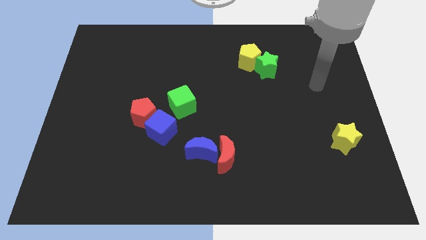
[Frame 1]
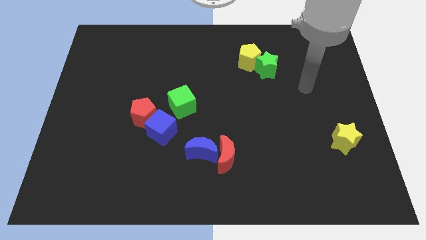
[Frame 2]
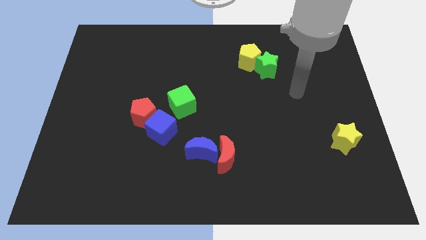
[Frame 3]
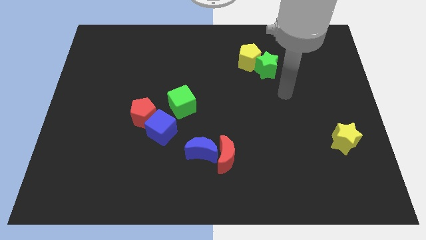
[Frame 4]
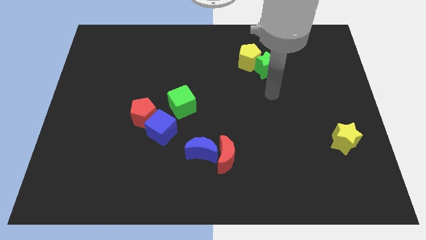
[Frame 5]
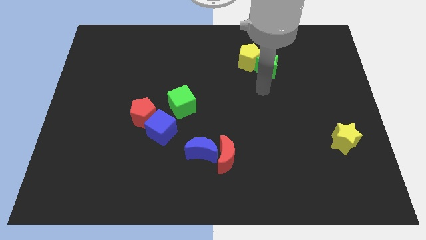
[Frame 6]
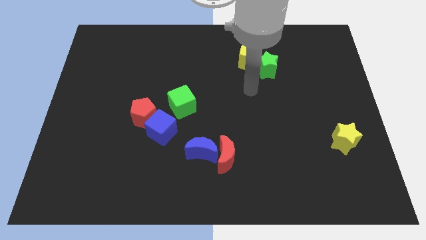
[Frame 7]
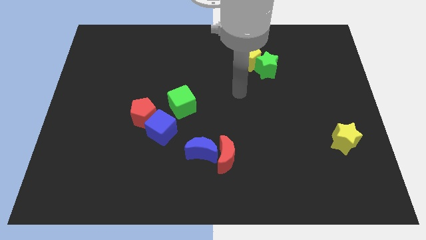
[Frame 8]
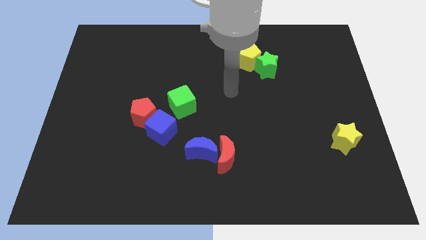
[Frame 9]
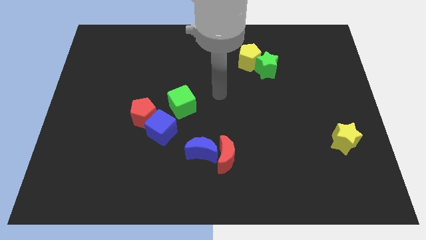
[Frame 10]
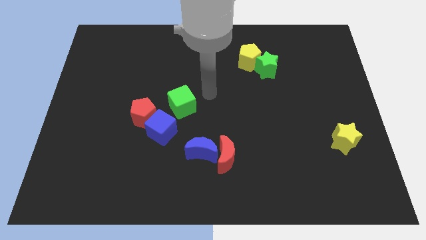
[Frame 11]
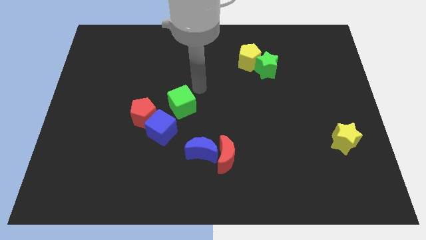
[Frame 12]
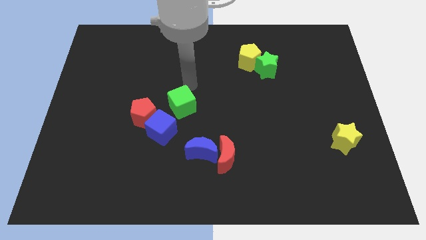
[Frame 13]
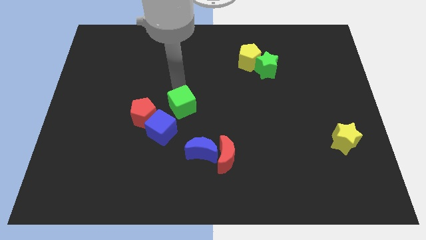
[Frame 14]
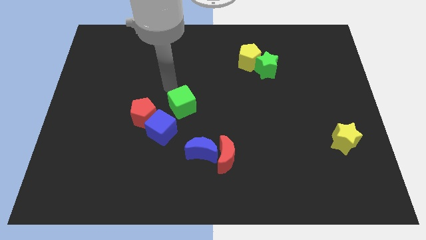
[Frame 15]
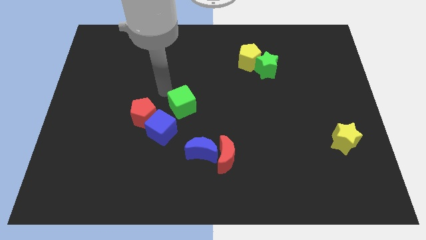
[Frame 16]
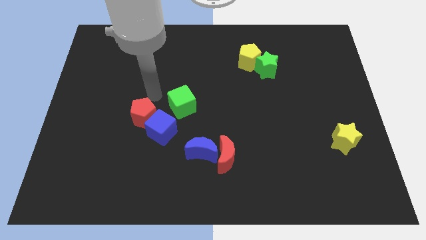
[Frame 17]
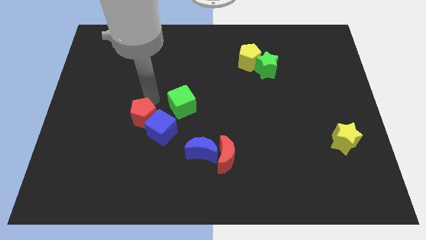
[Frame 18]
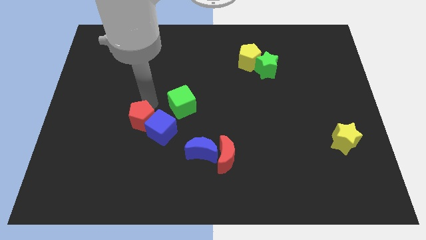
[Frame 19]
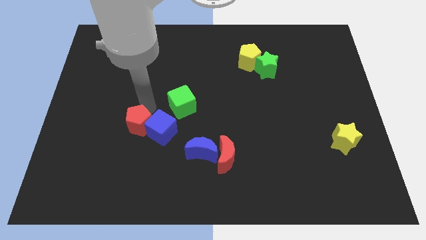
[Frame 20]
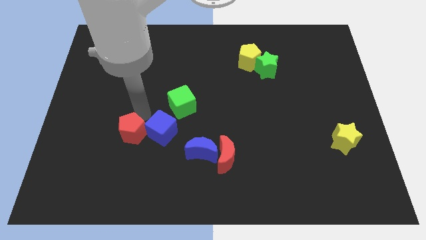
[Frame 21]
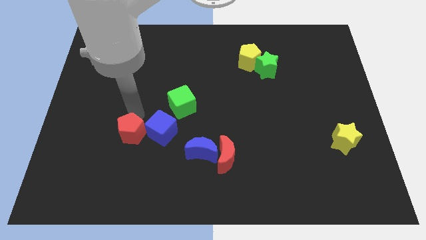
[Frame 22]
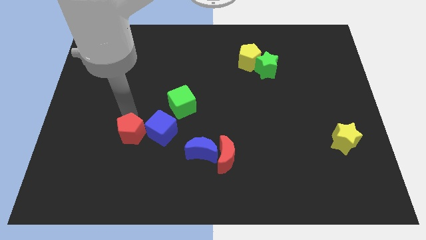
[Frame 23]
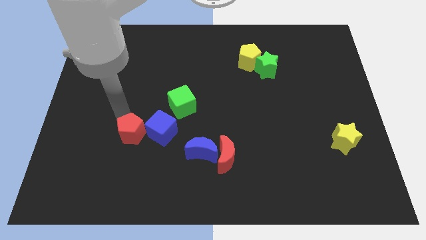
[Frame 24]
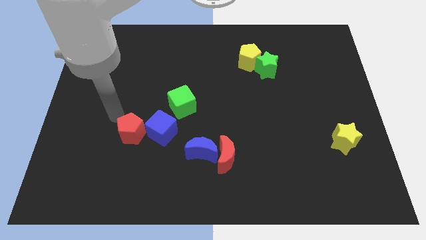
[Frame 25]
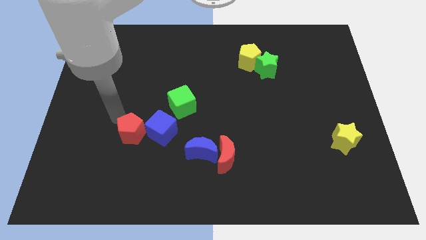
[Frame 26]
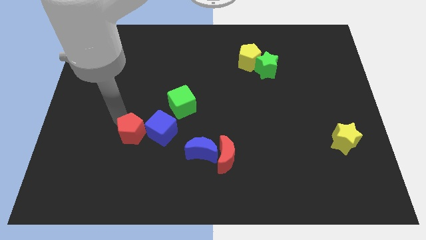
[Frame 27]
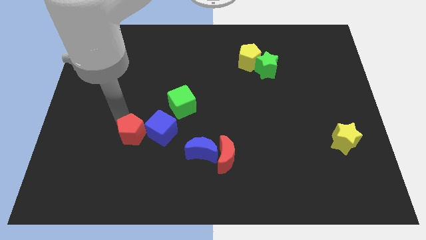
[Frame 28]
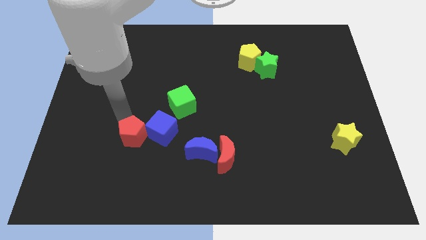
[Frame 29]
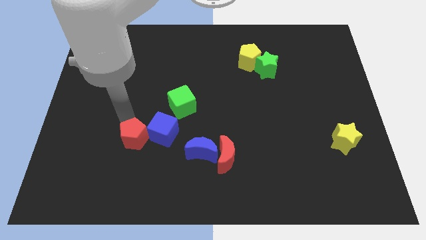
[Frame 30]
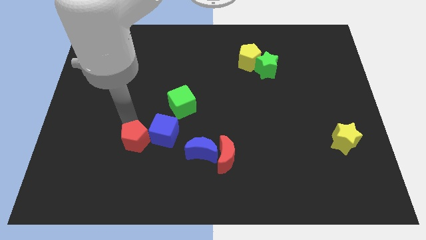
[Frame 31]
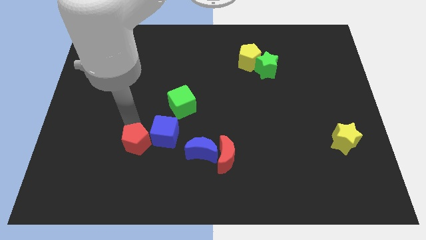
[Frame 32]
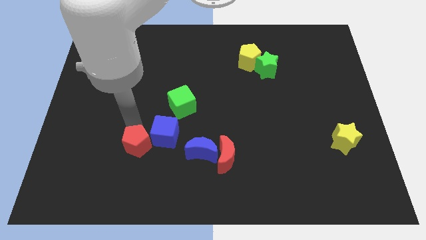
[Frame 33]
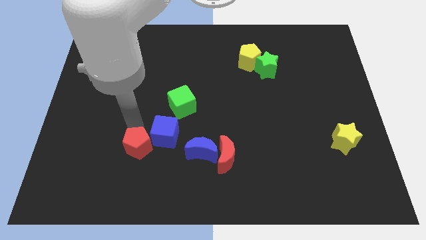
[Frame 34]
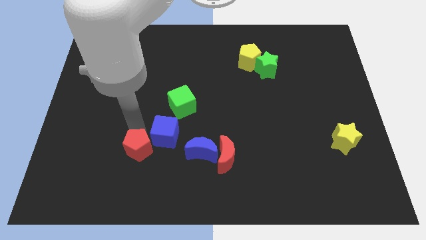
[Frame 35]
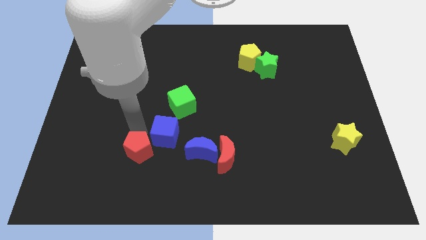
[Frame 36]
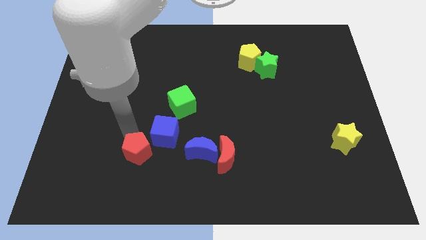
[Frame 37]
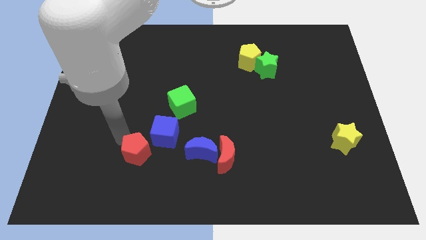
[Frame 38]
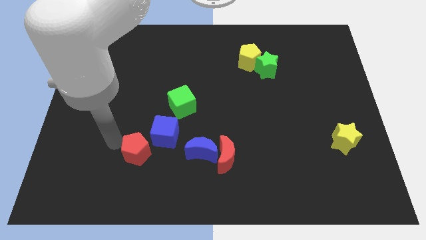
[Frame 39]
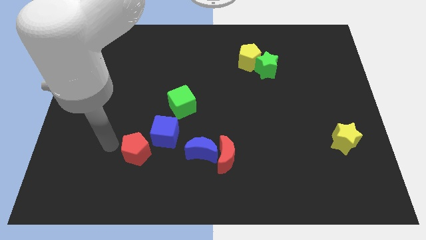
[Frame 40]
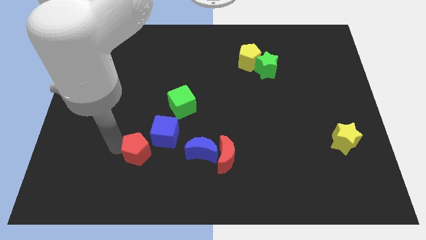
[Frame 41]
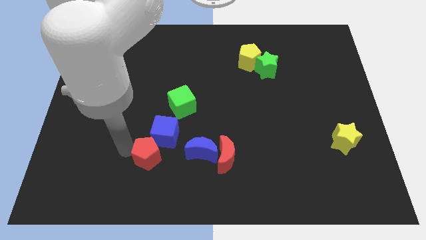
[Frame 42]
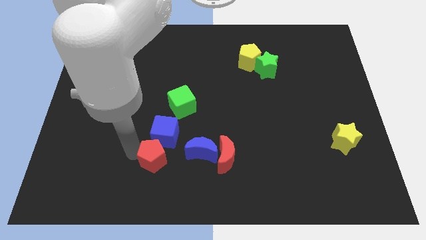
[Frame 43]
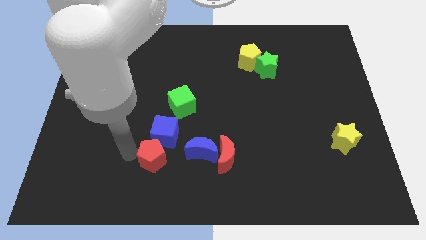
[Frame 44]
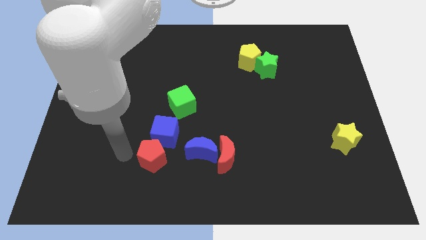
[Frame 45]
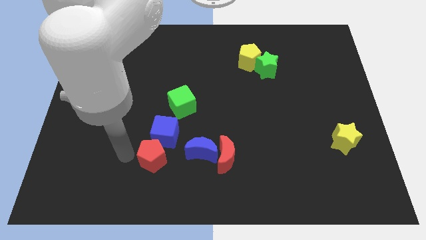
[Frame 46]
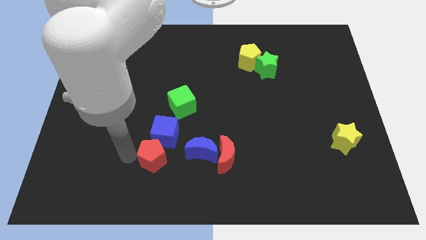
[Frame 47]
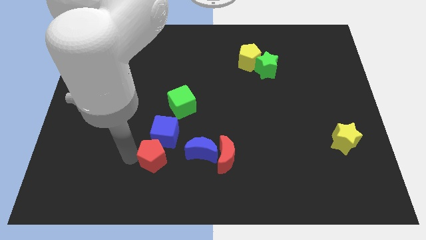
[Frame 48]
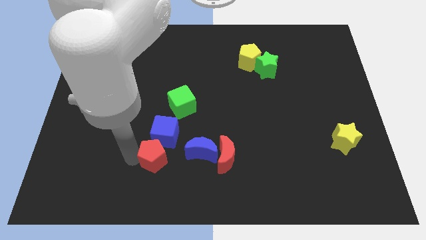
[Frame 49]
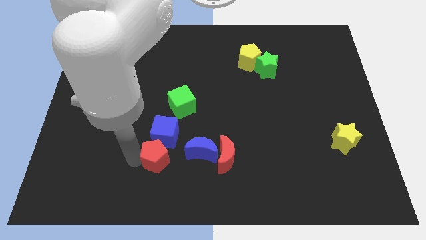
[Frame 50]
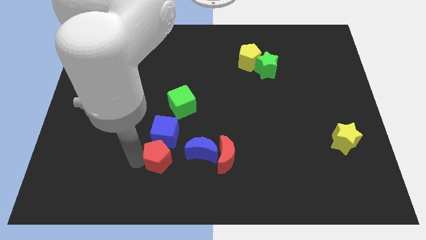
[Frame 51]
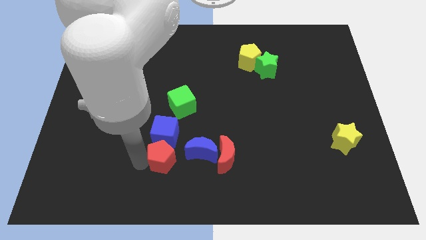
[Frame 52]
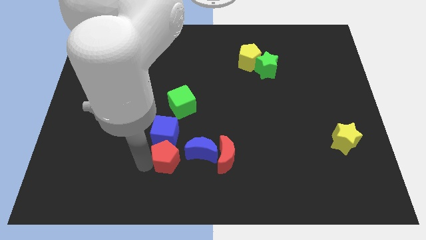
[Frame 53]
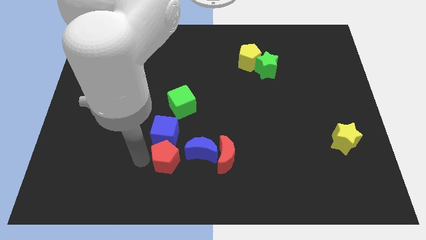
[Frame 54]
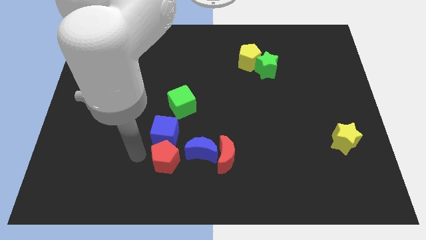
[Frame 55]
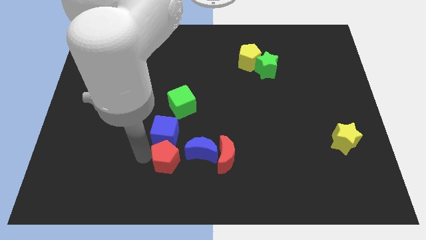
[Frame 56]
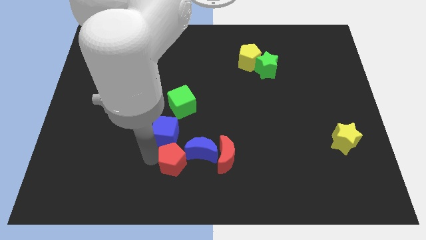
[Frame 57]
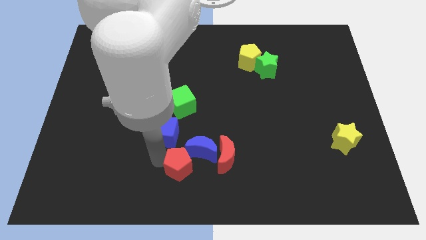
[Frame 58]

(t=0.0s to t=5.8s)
put the red pentagon towards the blue moon

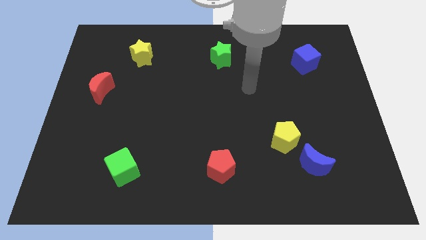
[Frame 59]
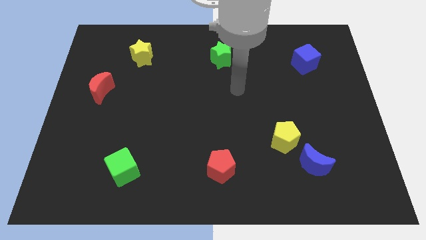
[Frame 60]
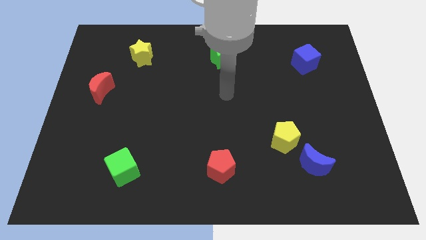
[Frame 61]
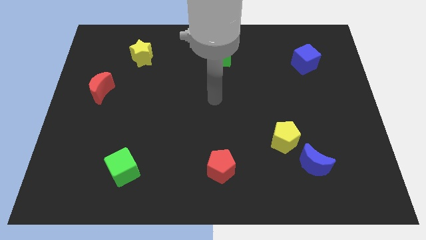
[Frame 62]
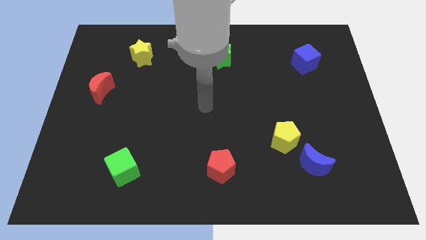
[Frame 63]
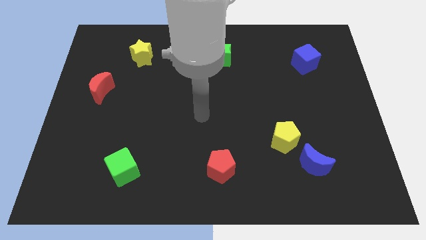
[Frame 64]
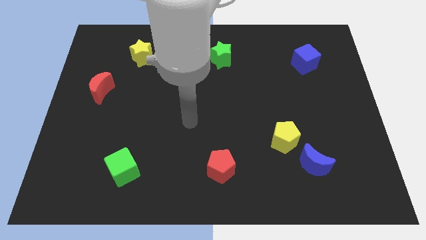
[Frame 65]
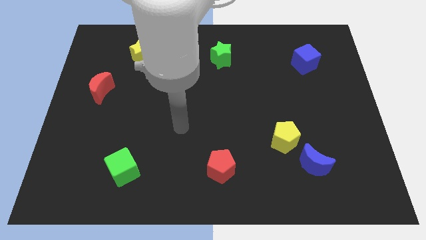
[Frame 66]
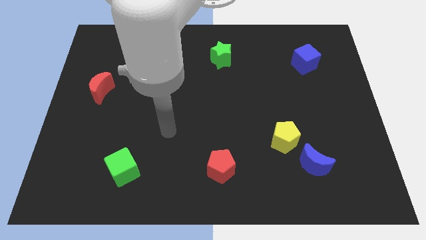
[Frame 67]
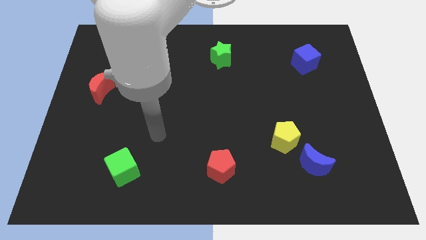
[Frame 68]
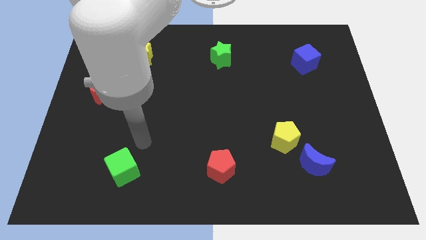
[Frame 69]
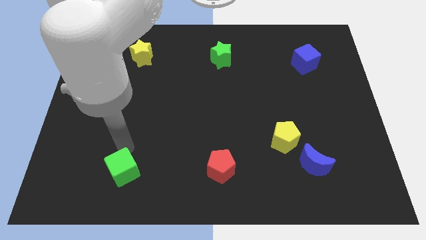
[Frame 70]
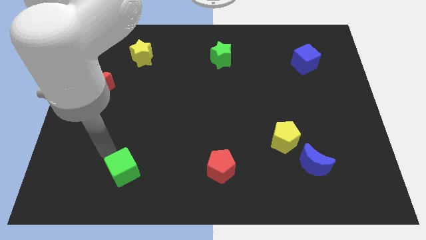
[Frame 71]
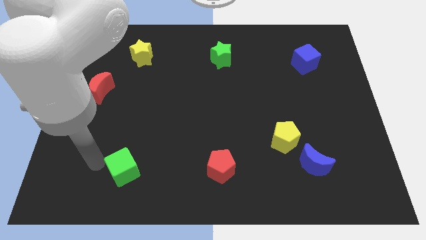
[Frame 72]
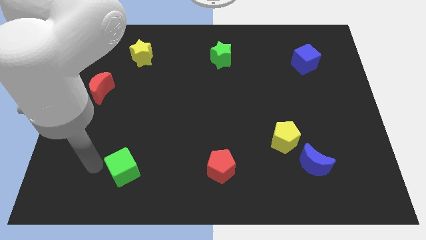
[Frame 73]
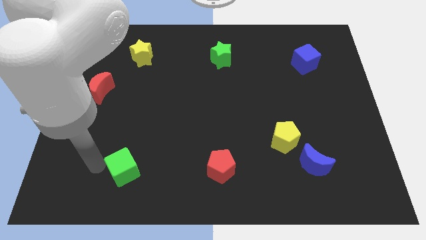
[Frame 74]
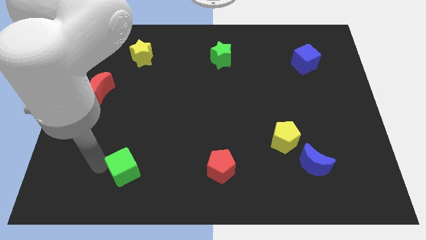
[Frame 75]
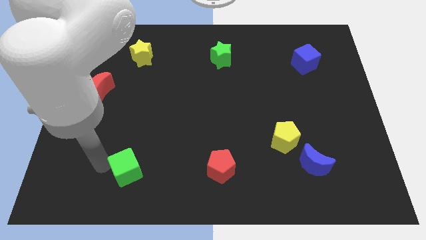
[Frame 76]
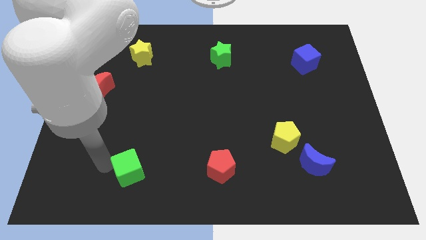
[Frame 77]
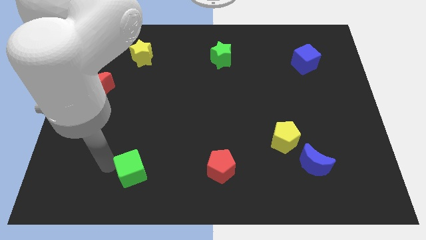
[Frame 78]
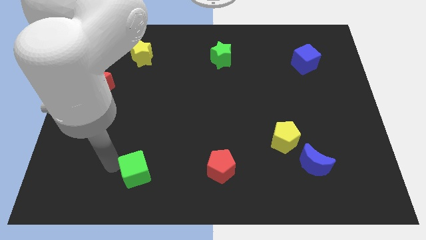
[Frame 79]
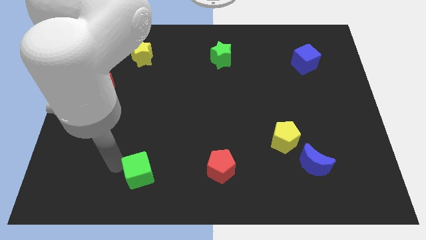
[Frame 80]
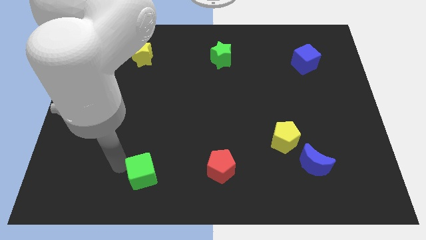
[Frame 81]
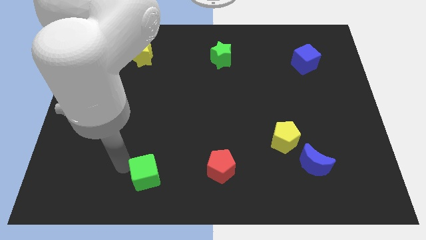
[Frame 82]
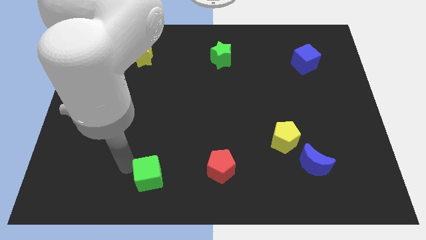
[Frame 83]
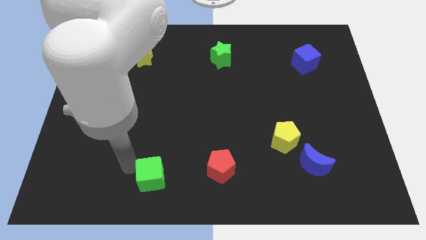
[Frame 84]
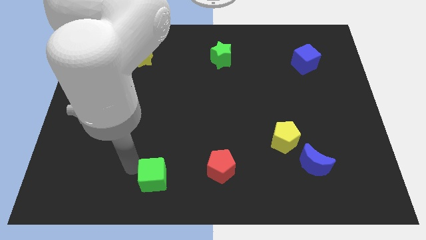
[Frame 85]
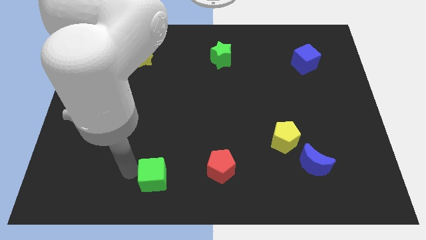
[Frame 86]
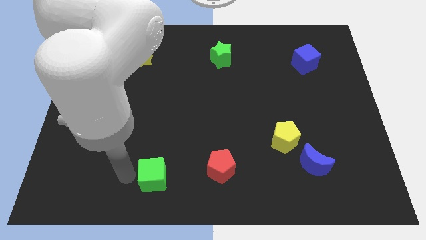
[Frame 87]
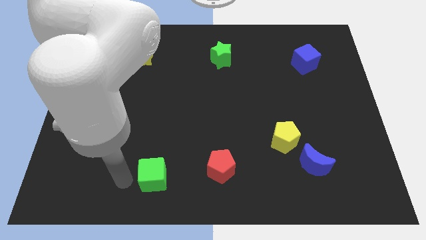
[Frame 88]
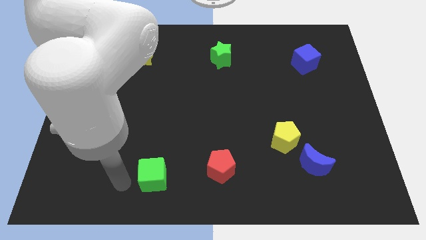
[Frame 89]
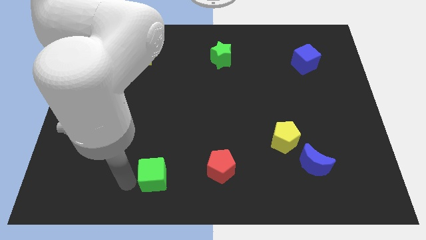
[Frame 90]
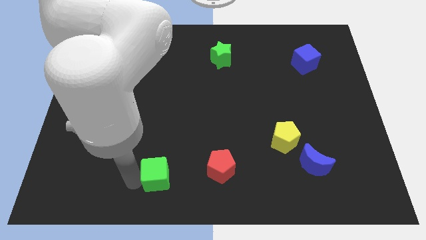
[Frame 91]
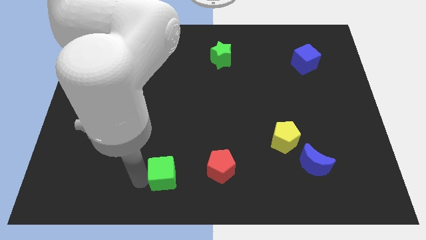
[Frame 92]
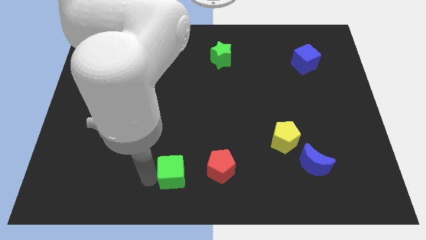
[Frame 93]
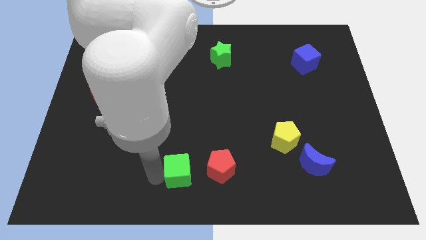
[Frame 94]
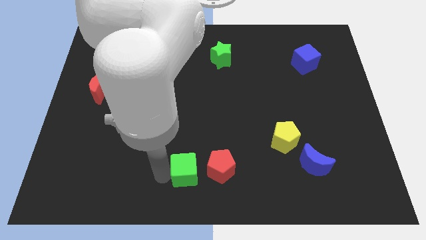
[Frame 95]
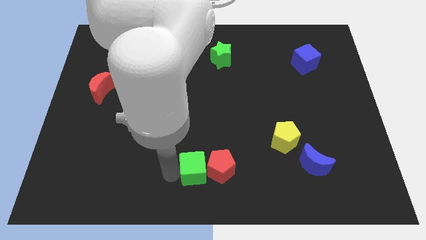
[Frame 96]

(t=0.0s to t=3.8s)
move the green cube next to the red pentagon
